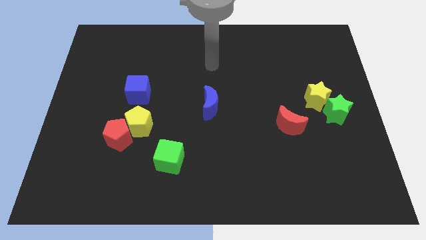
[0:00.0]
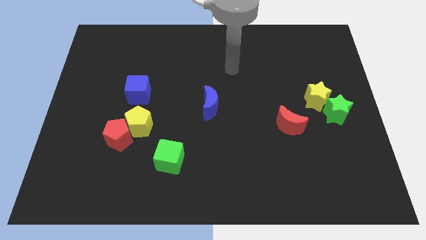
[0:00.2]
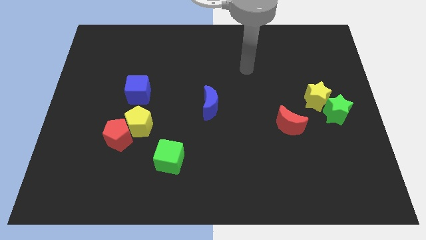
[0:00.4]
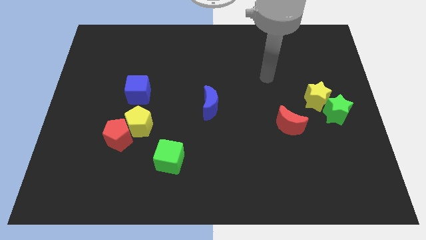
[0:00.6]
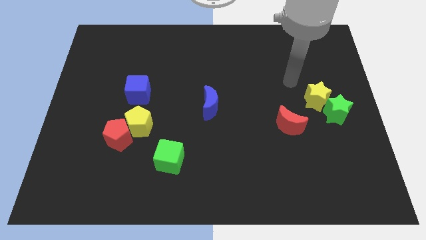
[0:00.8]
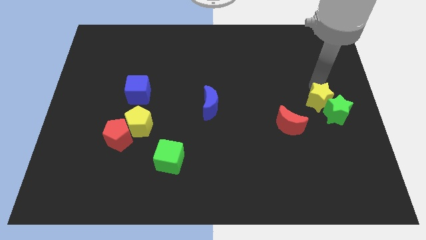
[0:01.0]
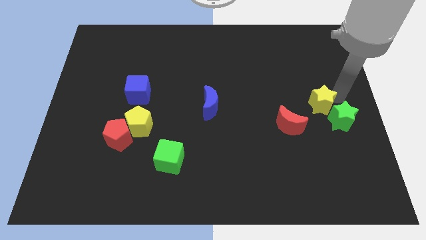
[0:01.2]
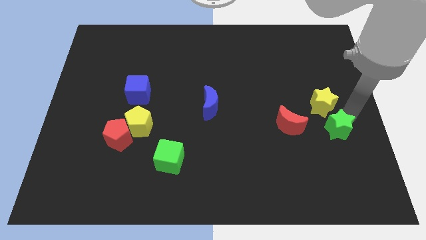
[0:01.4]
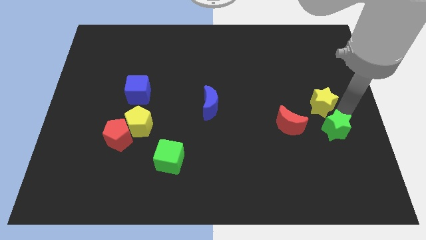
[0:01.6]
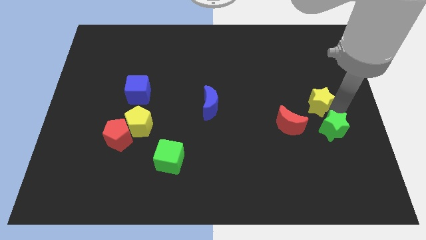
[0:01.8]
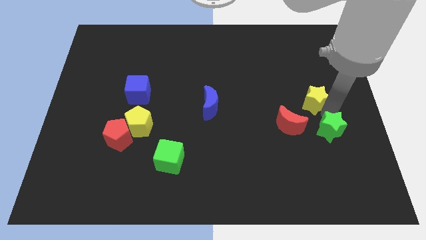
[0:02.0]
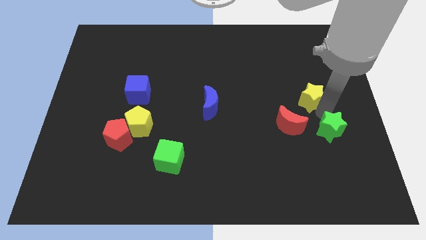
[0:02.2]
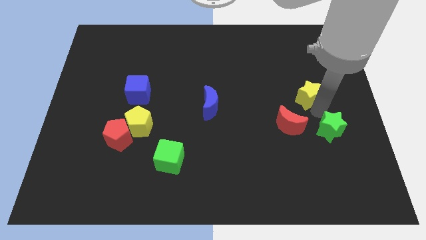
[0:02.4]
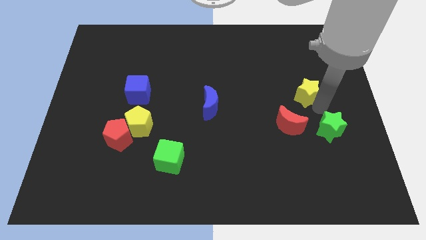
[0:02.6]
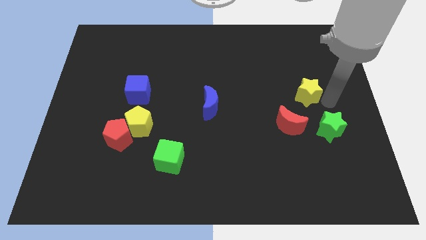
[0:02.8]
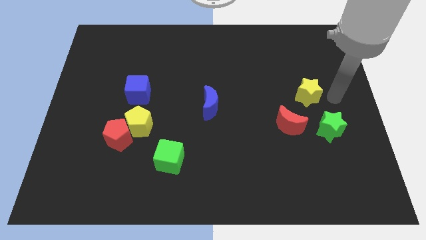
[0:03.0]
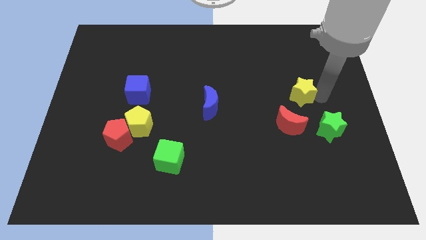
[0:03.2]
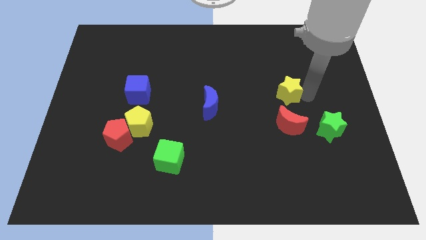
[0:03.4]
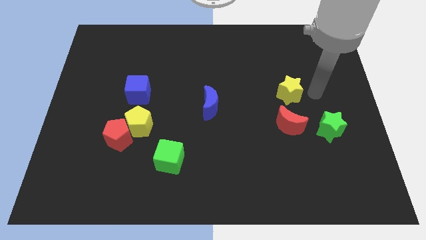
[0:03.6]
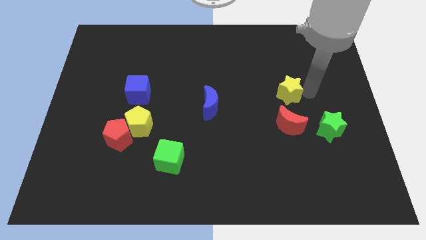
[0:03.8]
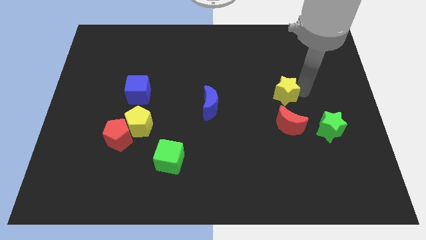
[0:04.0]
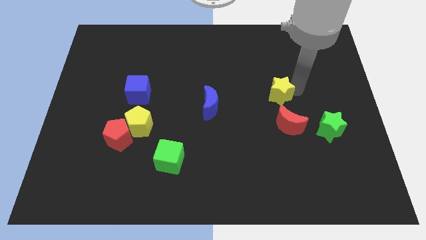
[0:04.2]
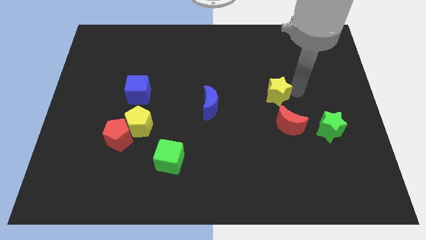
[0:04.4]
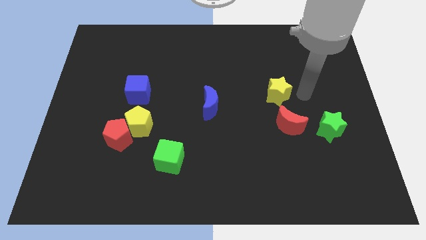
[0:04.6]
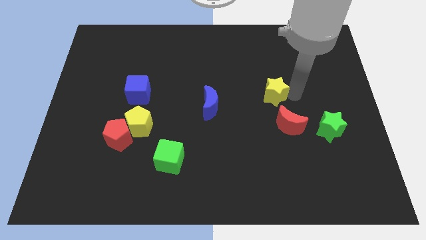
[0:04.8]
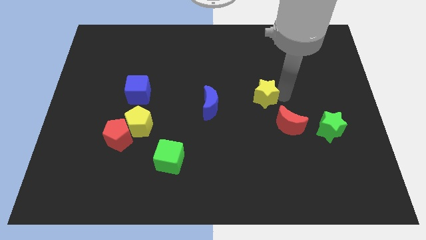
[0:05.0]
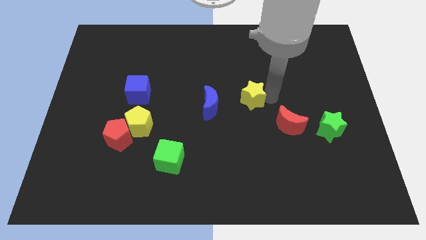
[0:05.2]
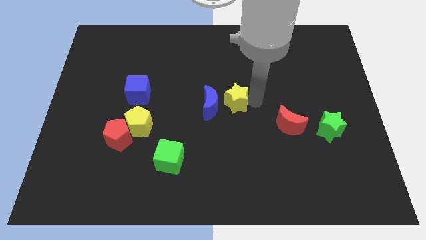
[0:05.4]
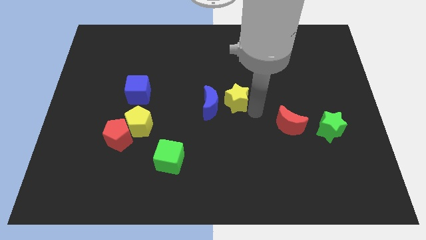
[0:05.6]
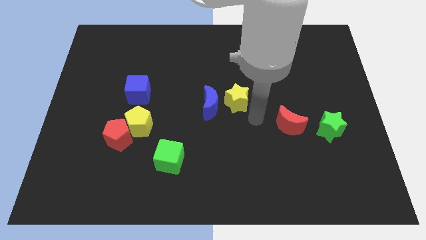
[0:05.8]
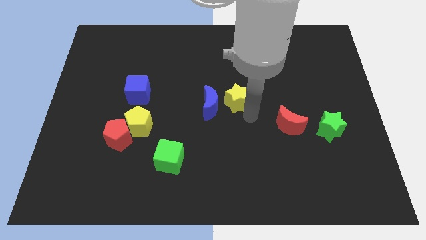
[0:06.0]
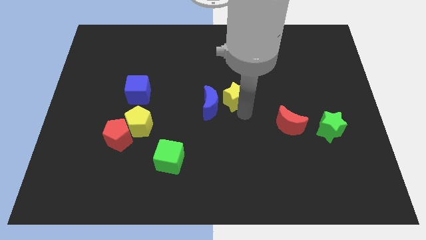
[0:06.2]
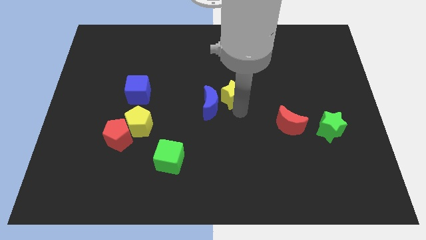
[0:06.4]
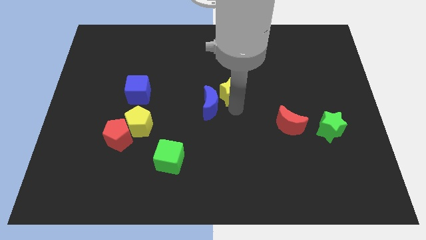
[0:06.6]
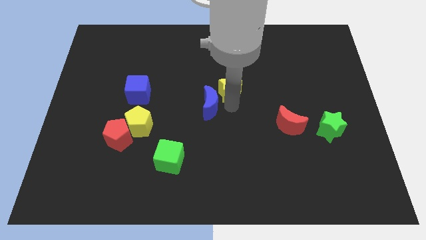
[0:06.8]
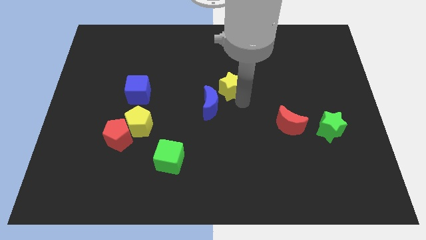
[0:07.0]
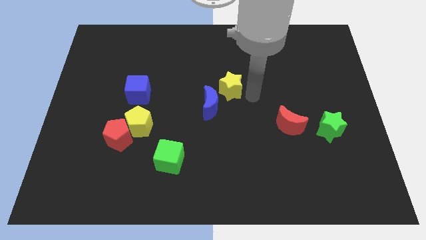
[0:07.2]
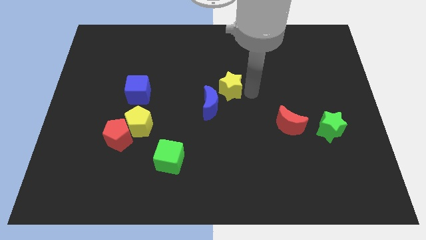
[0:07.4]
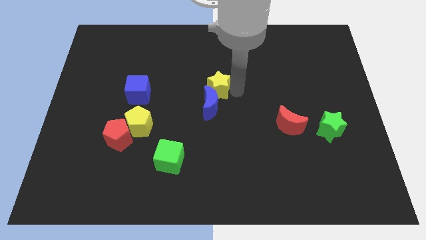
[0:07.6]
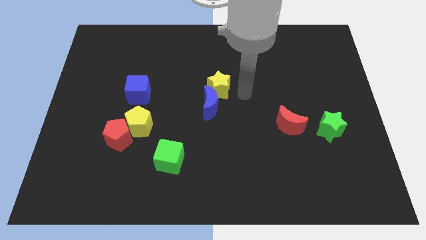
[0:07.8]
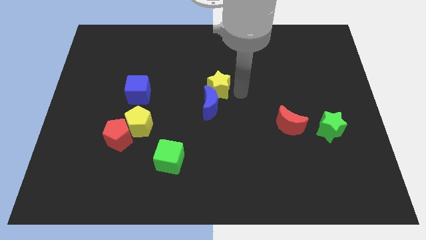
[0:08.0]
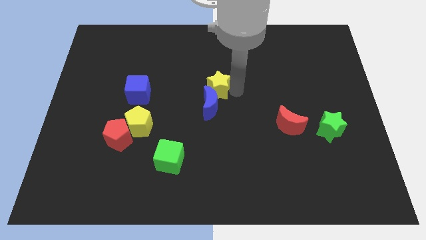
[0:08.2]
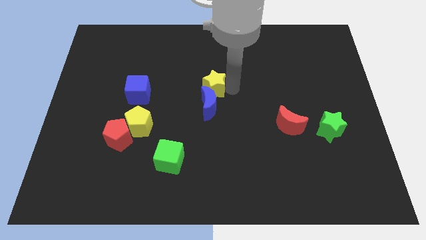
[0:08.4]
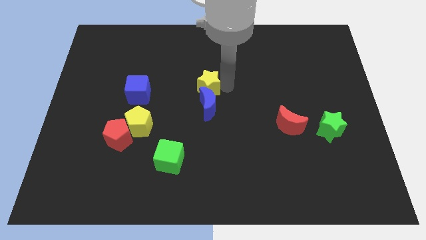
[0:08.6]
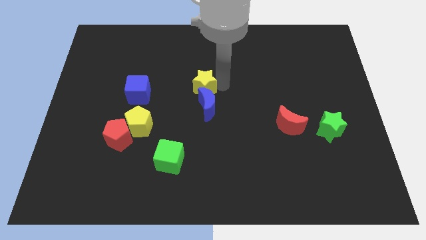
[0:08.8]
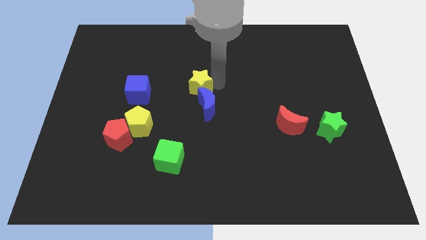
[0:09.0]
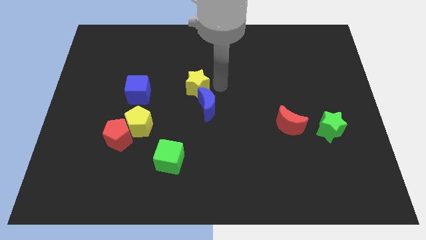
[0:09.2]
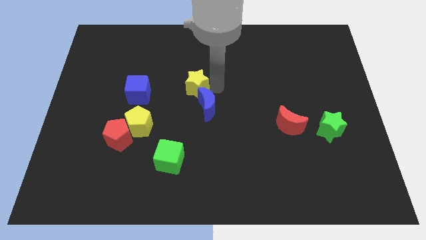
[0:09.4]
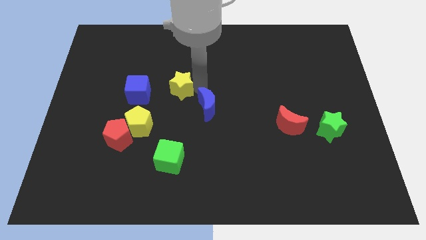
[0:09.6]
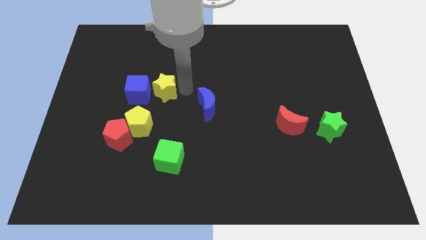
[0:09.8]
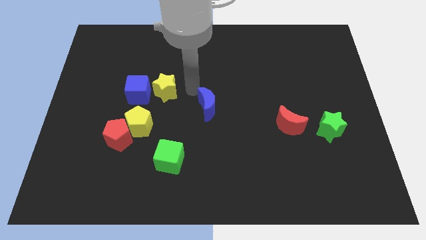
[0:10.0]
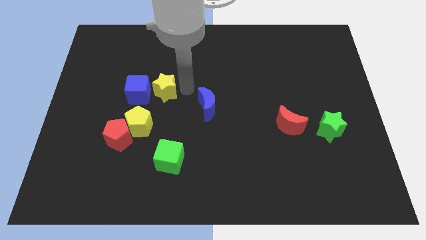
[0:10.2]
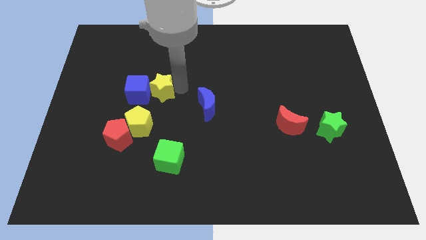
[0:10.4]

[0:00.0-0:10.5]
push the yellow star towards the blue cube

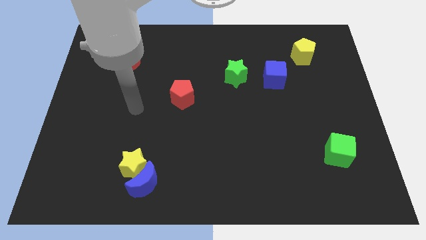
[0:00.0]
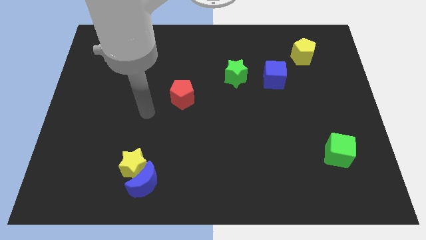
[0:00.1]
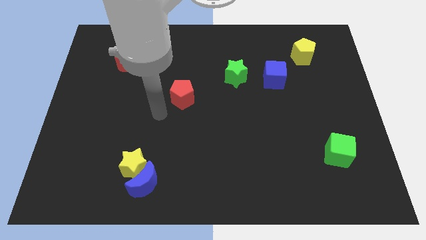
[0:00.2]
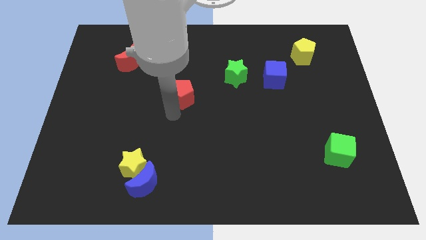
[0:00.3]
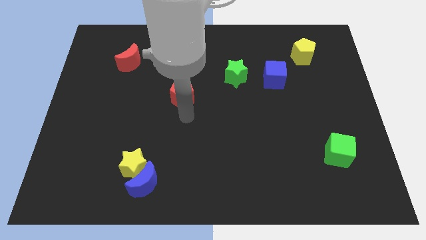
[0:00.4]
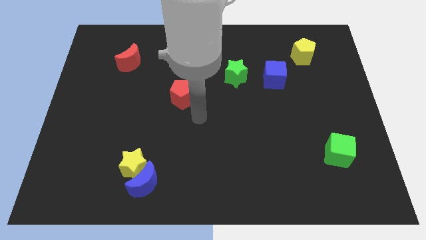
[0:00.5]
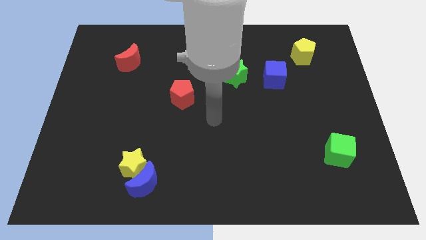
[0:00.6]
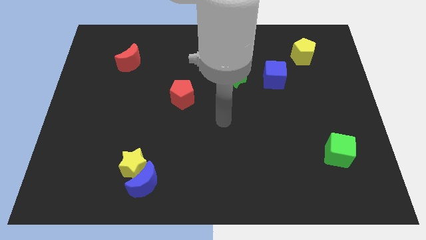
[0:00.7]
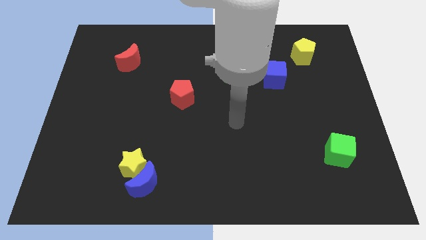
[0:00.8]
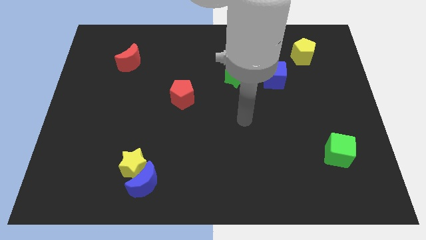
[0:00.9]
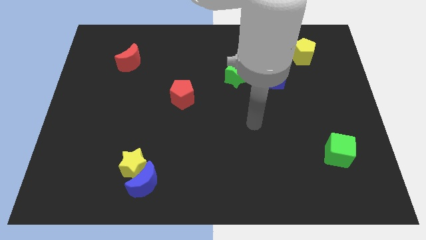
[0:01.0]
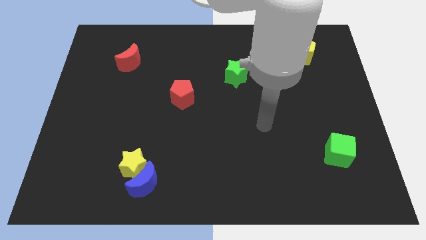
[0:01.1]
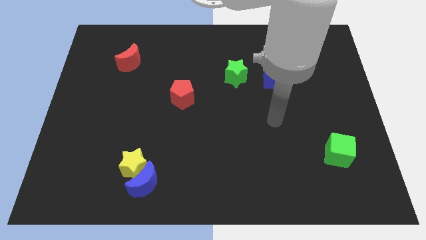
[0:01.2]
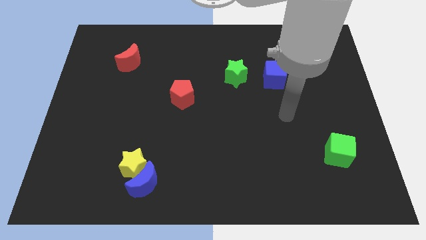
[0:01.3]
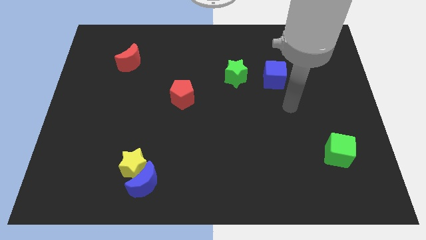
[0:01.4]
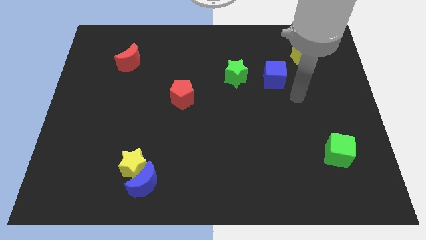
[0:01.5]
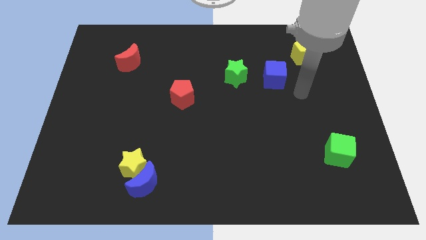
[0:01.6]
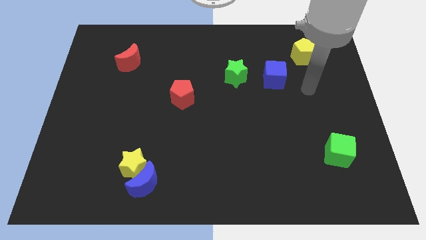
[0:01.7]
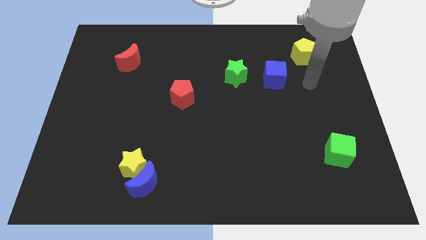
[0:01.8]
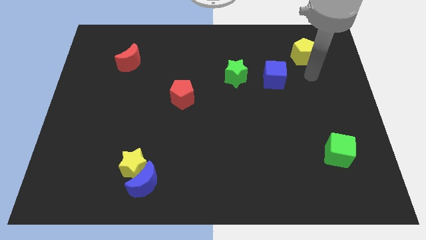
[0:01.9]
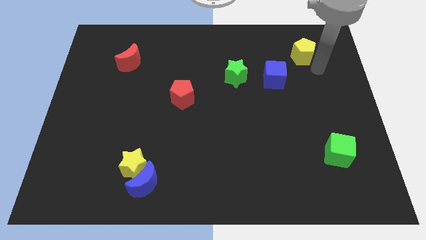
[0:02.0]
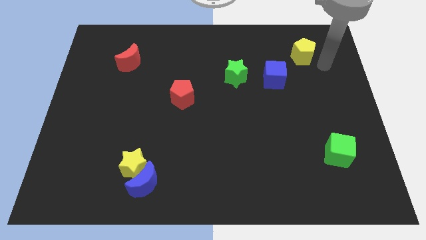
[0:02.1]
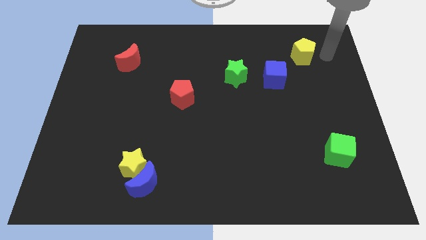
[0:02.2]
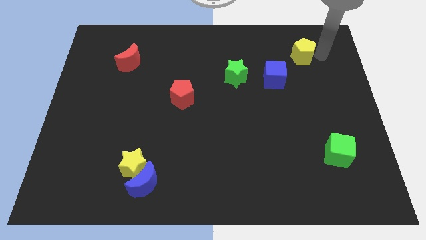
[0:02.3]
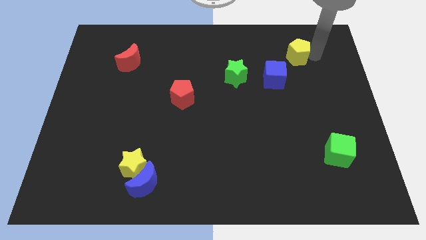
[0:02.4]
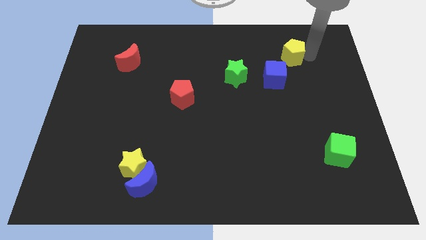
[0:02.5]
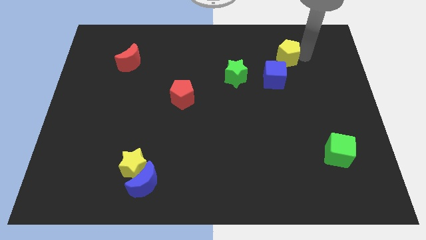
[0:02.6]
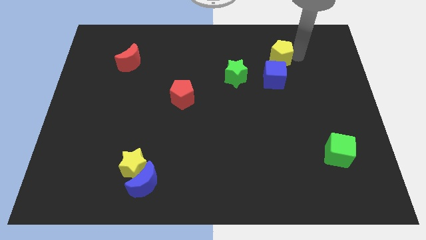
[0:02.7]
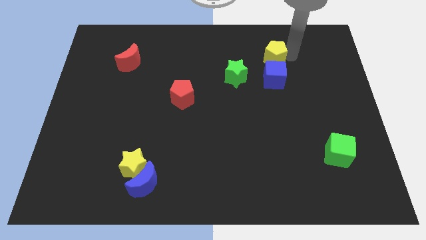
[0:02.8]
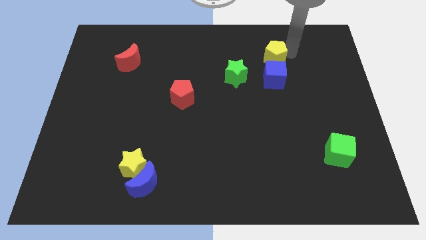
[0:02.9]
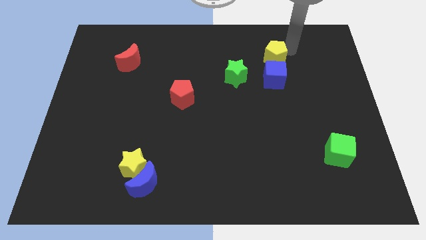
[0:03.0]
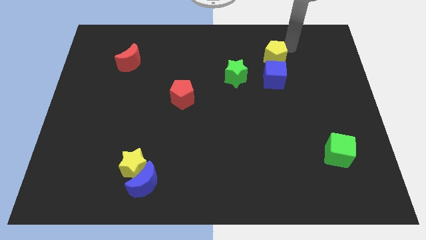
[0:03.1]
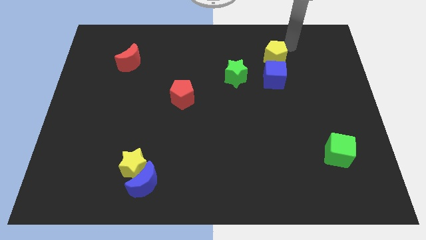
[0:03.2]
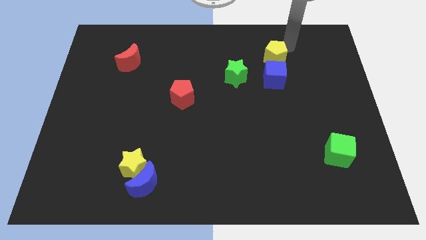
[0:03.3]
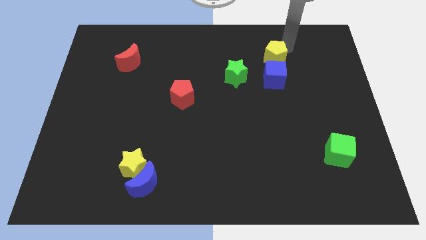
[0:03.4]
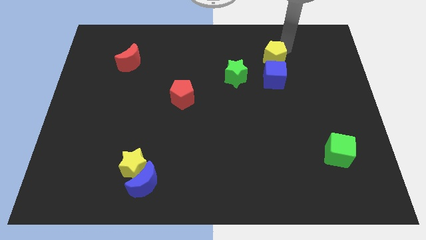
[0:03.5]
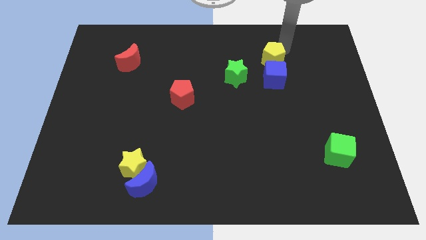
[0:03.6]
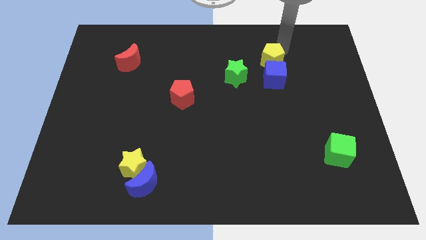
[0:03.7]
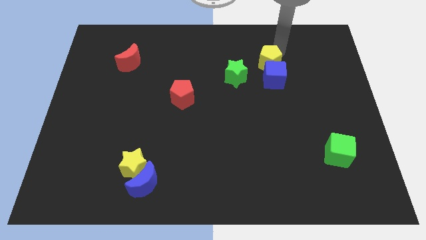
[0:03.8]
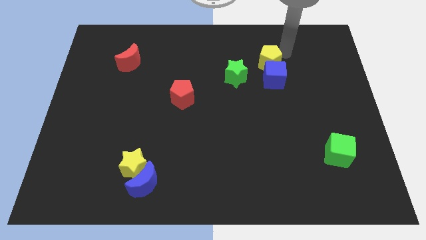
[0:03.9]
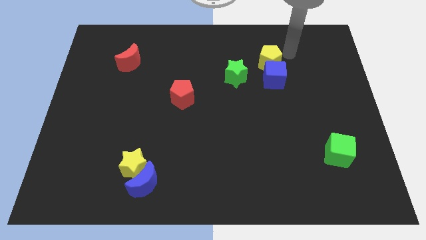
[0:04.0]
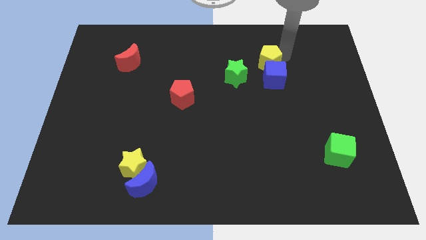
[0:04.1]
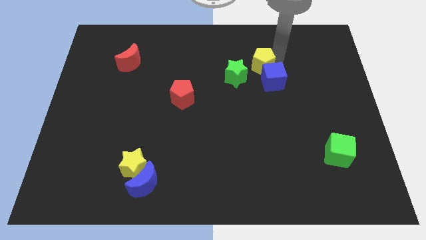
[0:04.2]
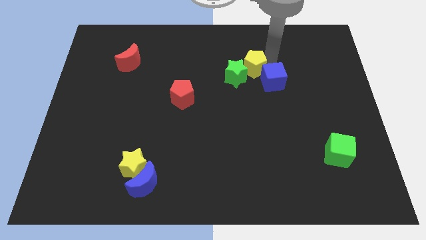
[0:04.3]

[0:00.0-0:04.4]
move the yellow pentagon close to the green star
